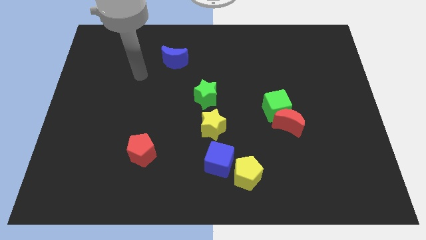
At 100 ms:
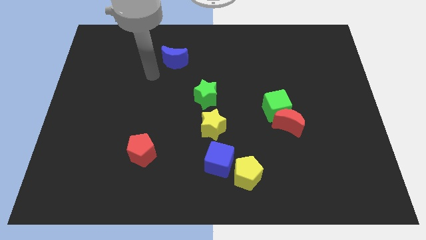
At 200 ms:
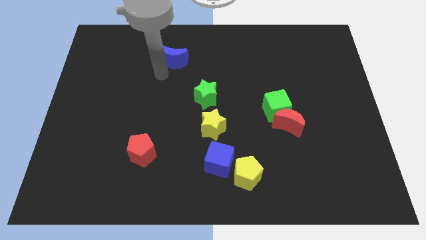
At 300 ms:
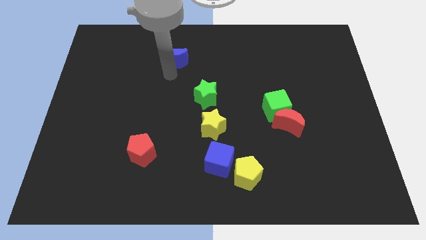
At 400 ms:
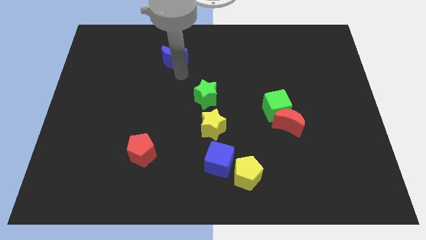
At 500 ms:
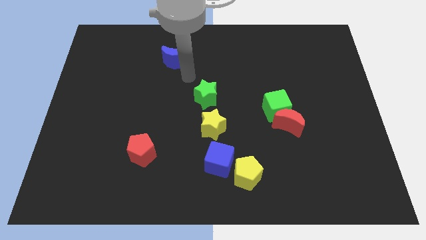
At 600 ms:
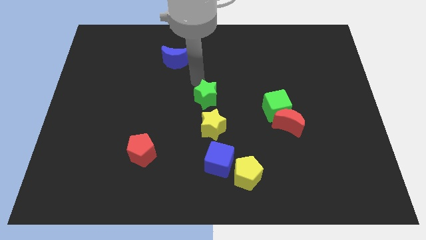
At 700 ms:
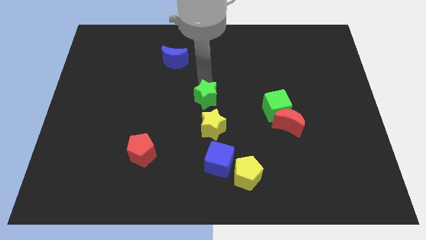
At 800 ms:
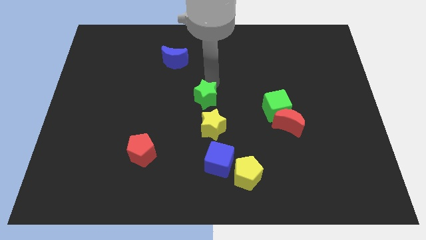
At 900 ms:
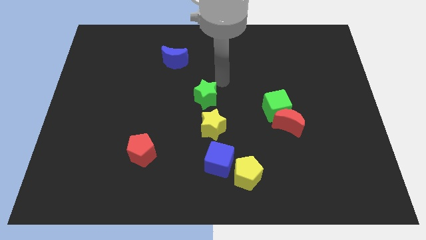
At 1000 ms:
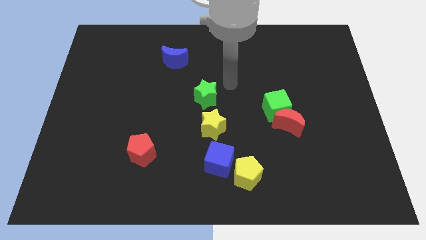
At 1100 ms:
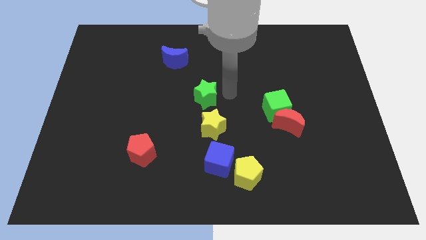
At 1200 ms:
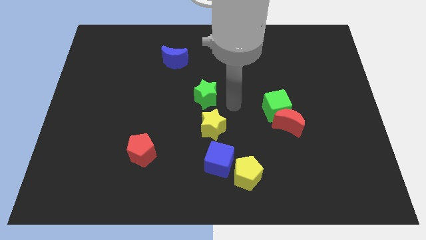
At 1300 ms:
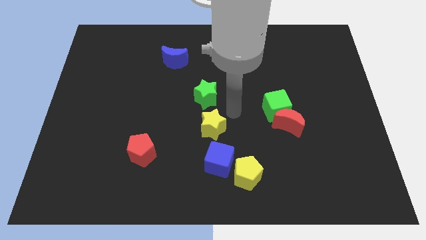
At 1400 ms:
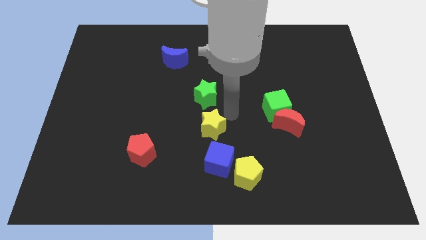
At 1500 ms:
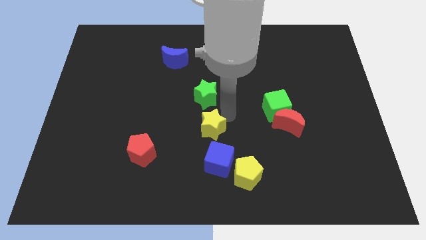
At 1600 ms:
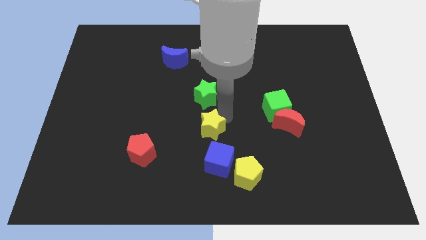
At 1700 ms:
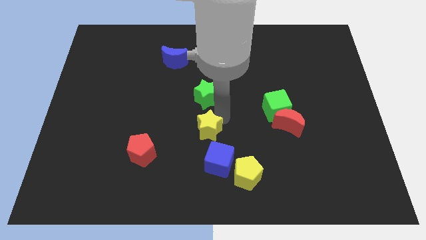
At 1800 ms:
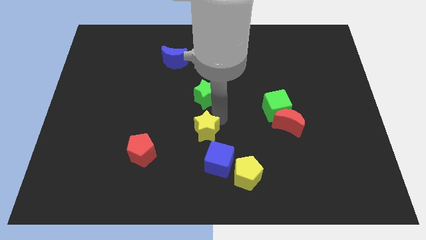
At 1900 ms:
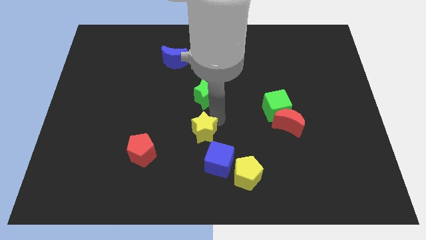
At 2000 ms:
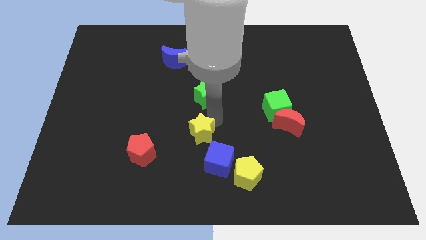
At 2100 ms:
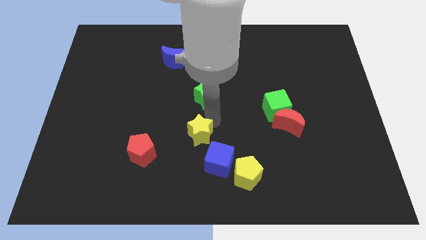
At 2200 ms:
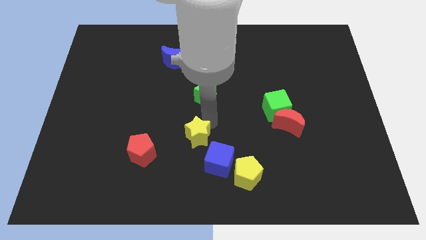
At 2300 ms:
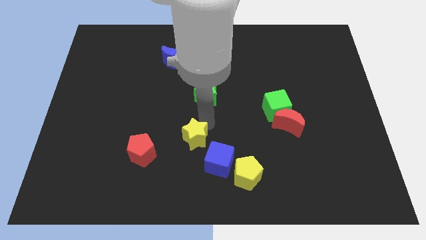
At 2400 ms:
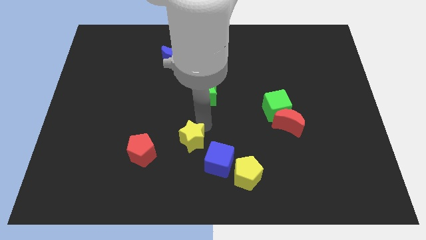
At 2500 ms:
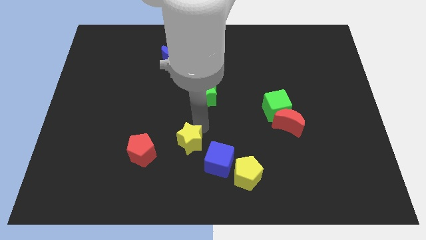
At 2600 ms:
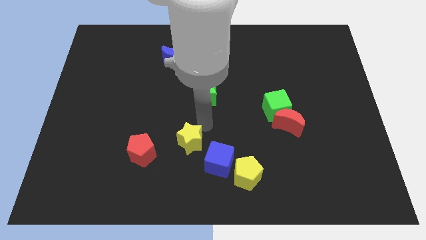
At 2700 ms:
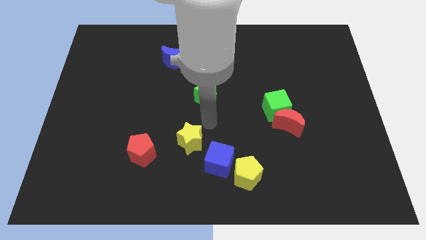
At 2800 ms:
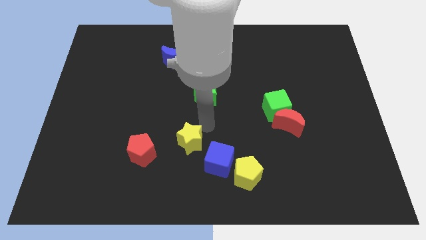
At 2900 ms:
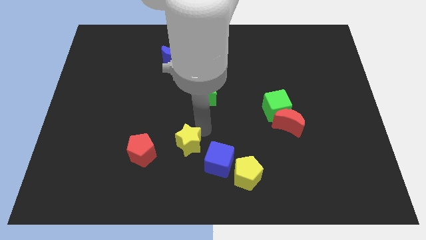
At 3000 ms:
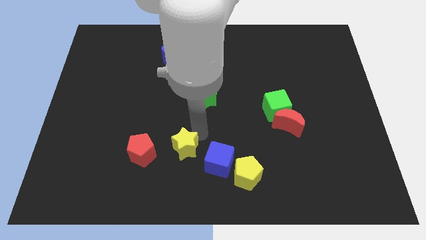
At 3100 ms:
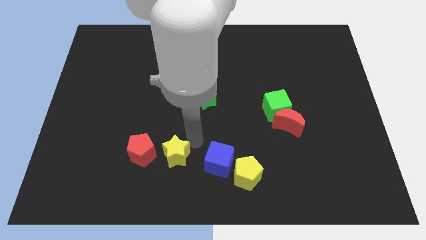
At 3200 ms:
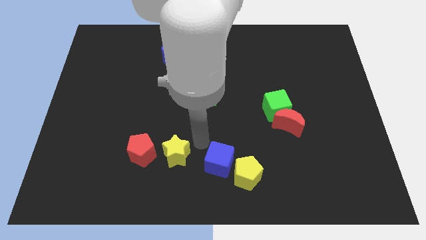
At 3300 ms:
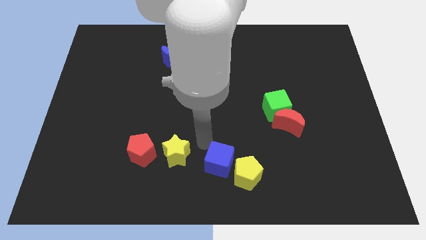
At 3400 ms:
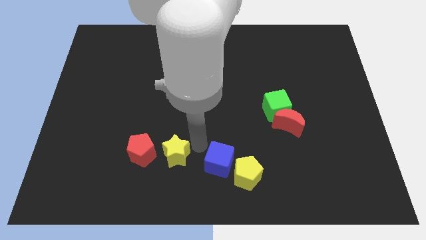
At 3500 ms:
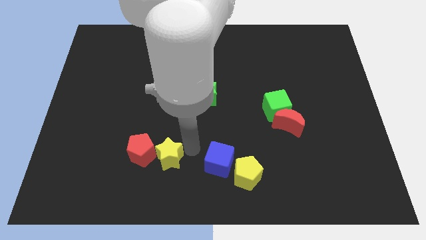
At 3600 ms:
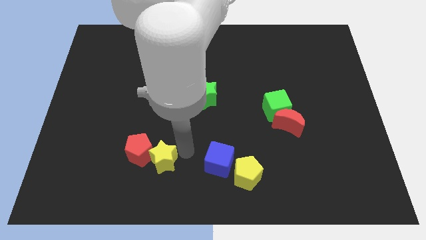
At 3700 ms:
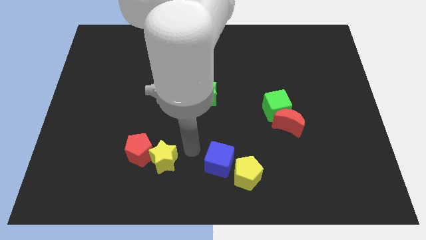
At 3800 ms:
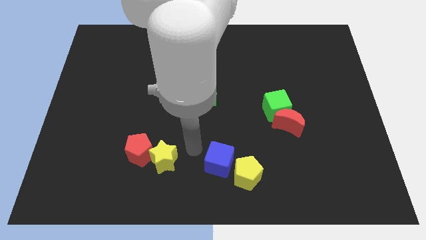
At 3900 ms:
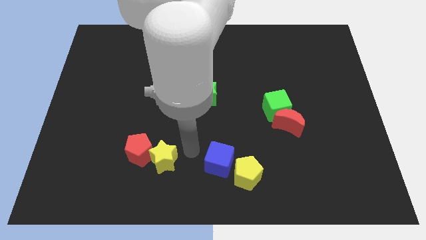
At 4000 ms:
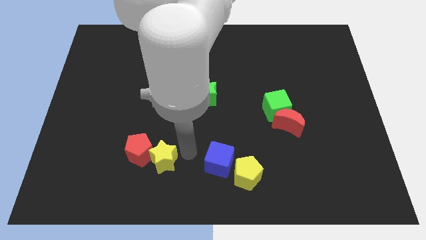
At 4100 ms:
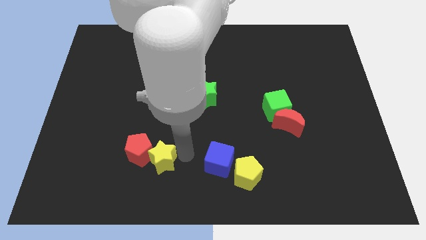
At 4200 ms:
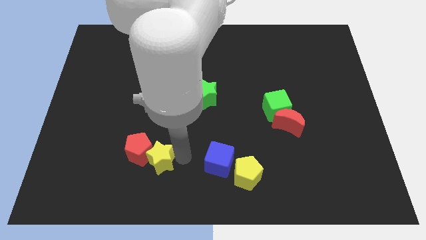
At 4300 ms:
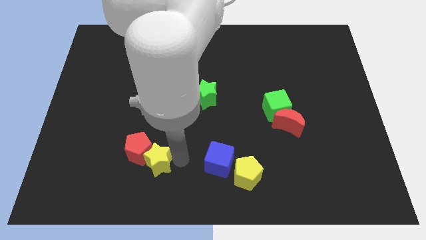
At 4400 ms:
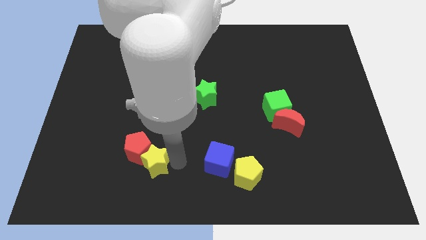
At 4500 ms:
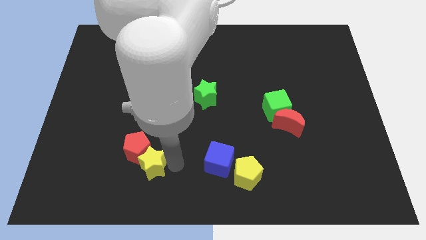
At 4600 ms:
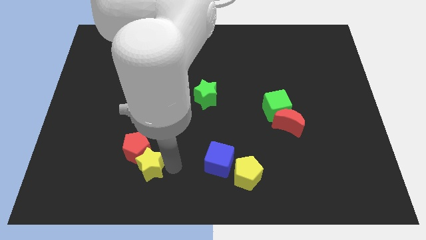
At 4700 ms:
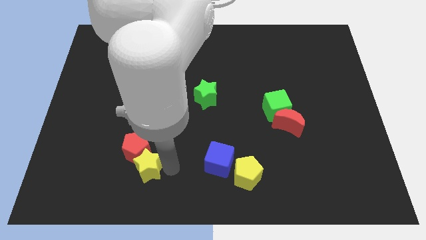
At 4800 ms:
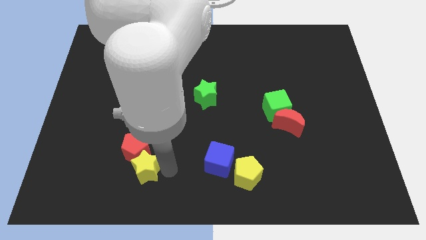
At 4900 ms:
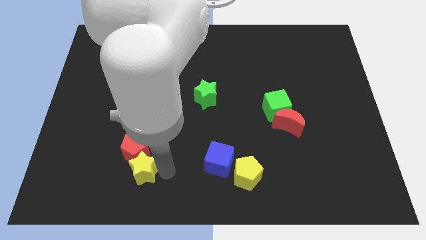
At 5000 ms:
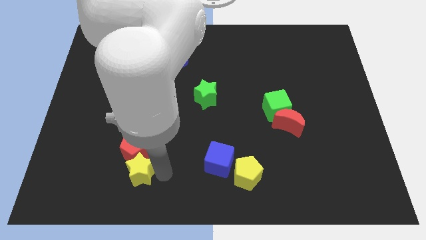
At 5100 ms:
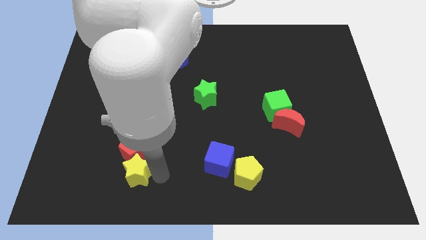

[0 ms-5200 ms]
push the yellow star to the bottom left side of the red pentagon

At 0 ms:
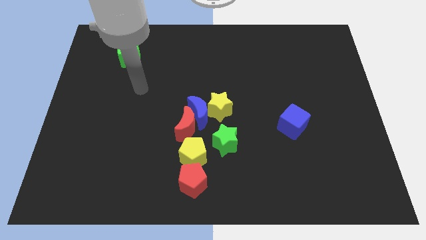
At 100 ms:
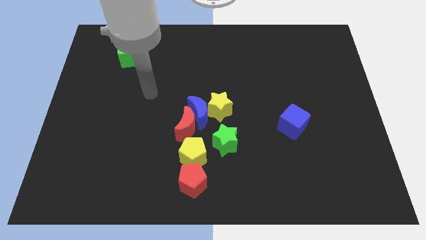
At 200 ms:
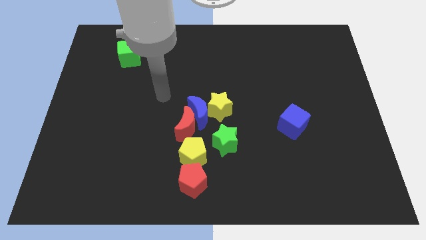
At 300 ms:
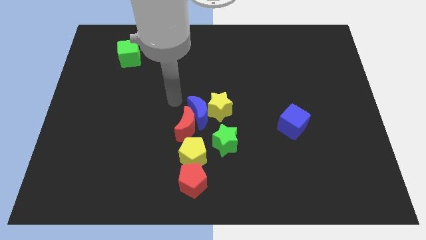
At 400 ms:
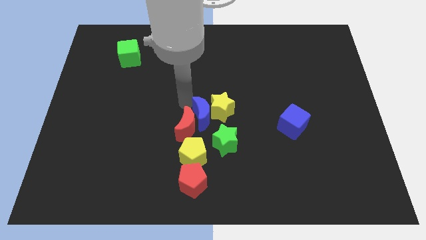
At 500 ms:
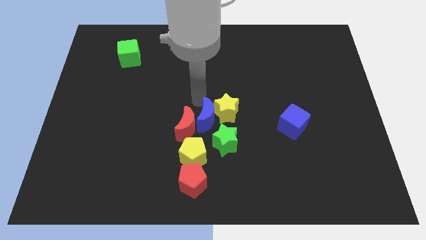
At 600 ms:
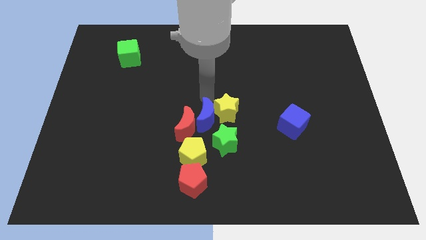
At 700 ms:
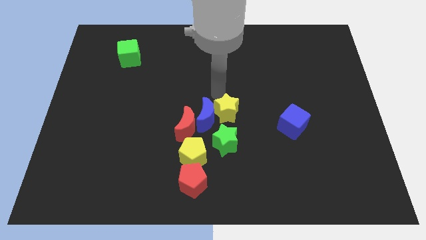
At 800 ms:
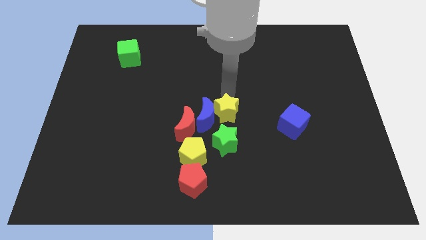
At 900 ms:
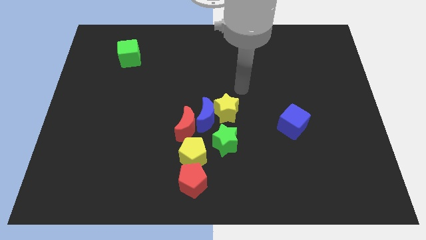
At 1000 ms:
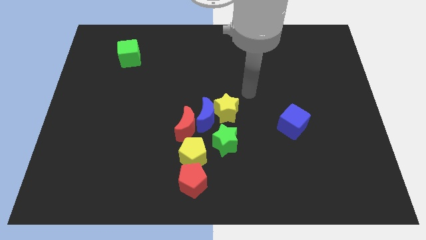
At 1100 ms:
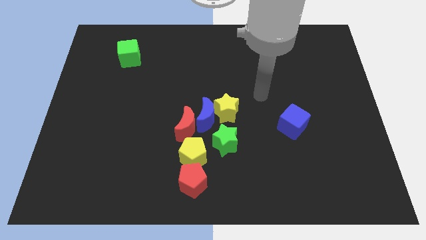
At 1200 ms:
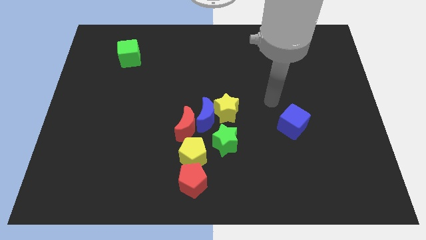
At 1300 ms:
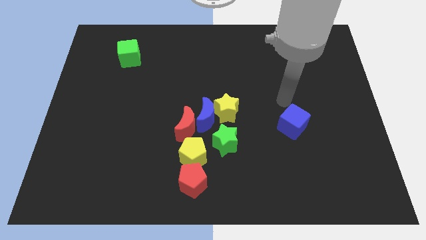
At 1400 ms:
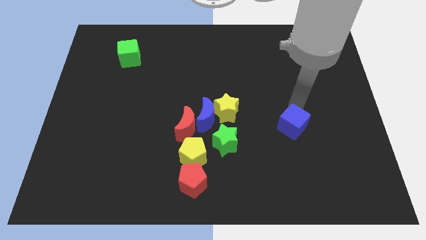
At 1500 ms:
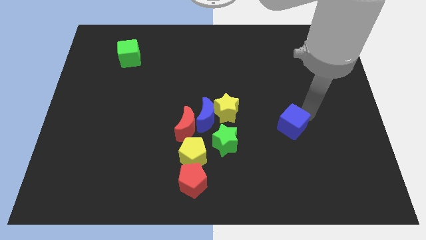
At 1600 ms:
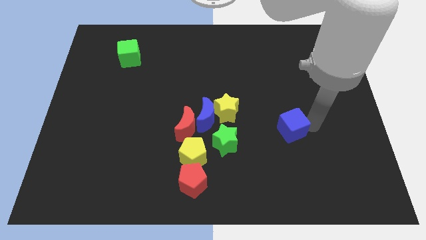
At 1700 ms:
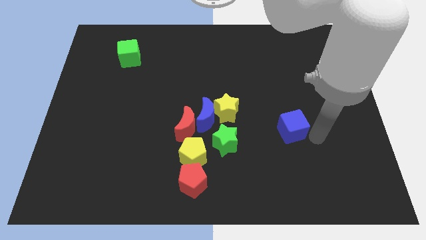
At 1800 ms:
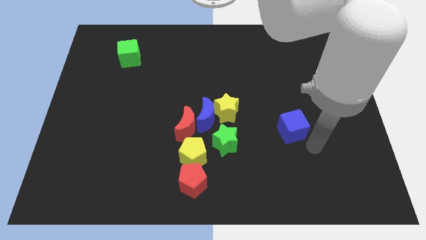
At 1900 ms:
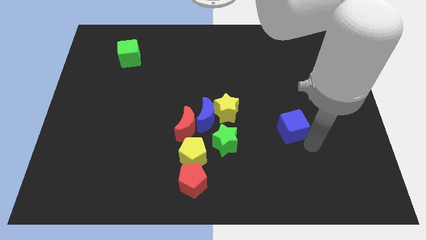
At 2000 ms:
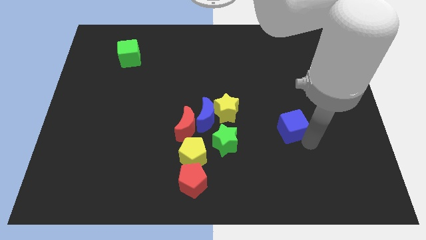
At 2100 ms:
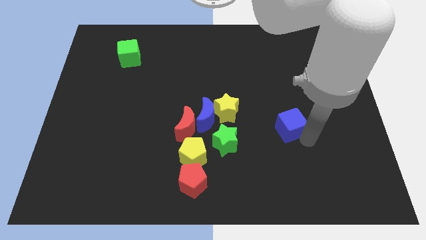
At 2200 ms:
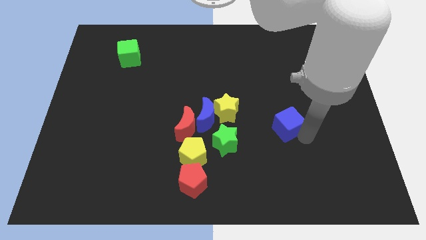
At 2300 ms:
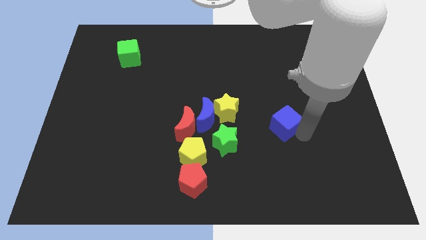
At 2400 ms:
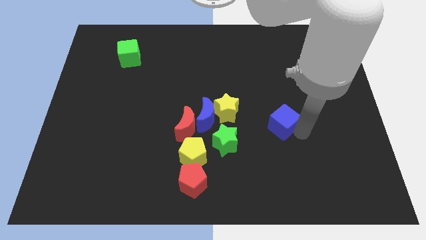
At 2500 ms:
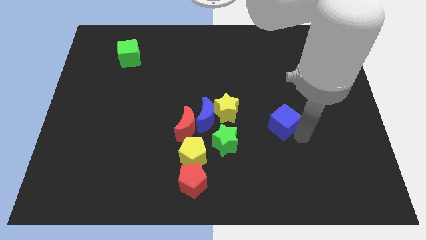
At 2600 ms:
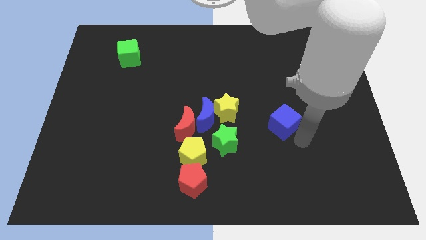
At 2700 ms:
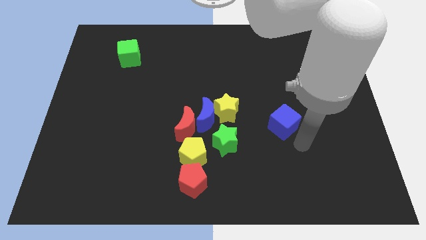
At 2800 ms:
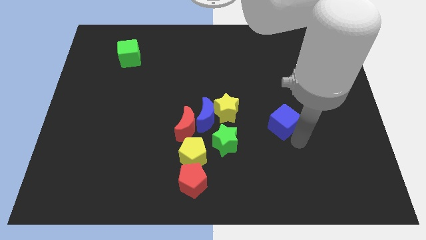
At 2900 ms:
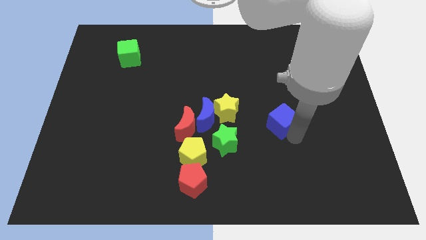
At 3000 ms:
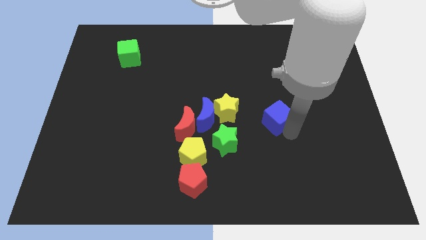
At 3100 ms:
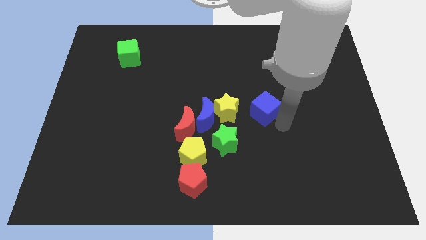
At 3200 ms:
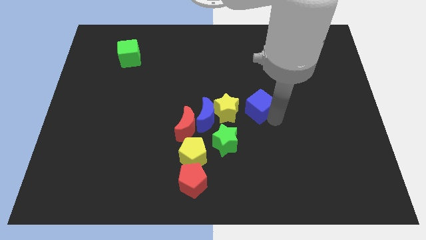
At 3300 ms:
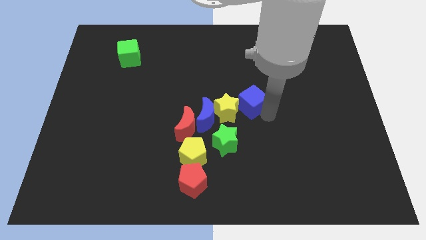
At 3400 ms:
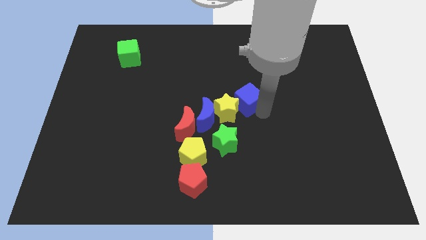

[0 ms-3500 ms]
push the blue cube to the top right side of the blue moon
